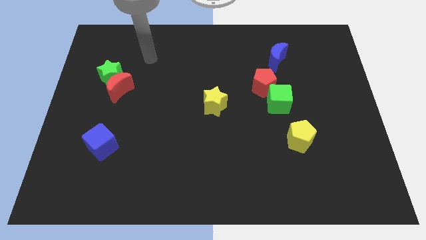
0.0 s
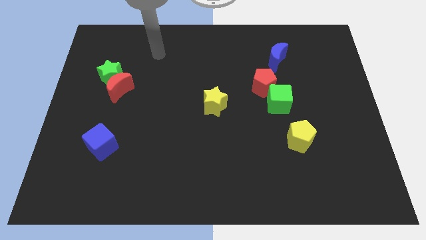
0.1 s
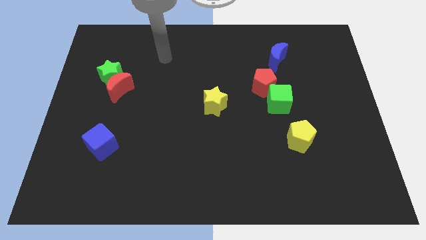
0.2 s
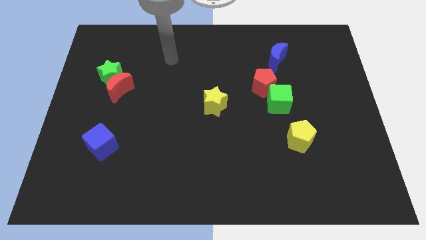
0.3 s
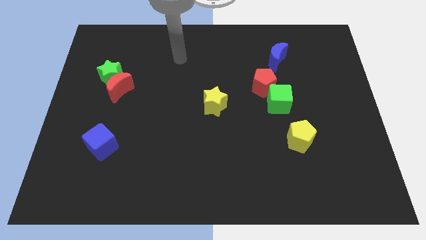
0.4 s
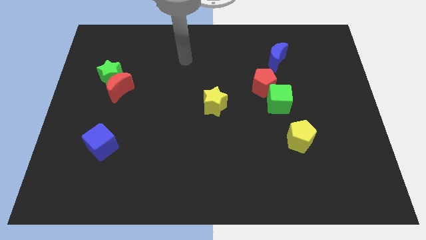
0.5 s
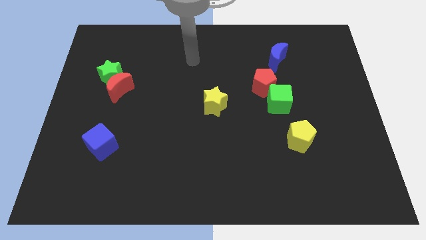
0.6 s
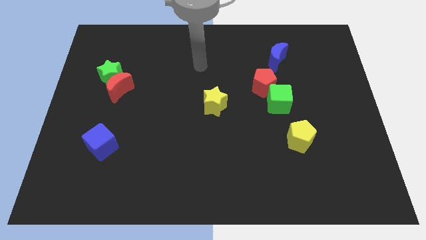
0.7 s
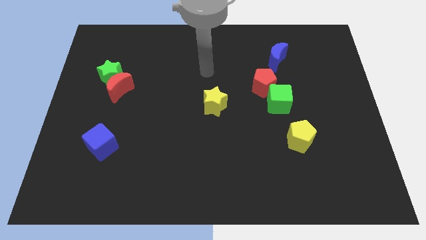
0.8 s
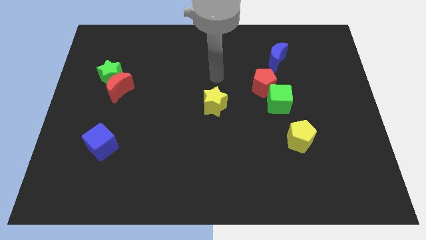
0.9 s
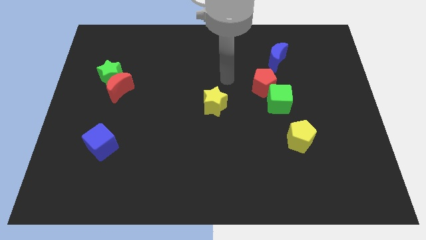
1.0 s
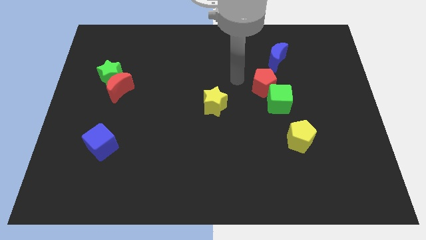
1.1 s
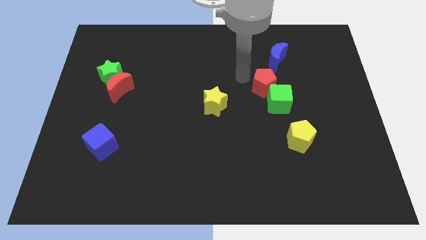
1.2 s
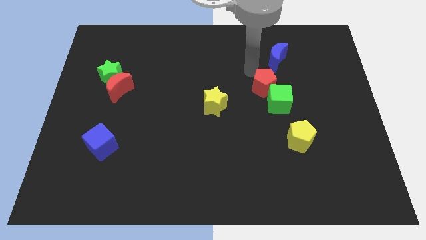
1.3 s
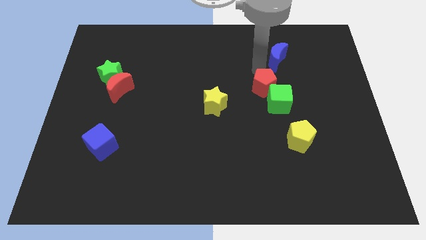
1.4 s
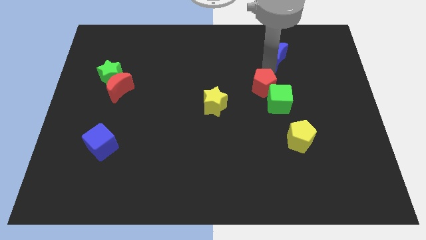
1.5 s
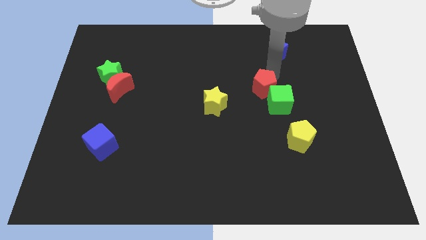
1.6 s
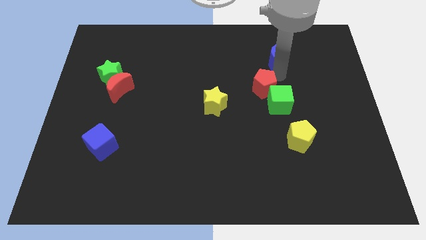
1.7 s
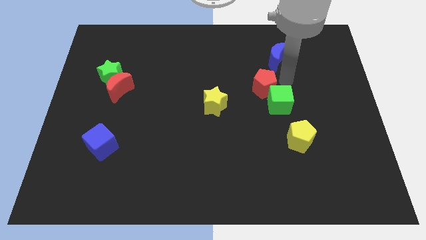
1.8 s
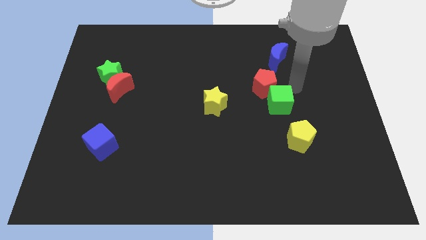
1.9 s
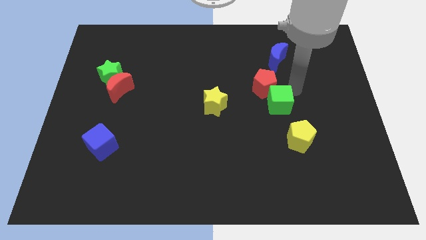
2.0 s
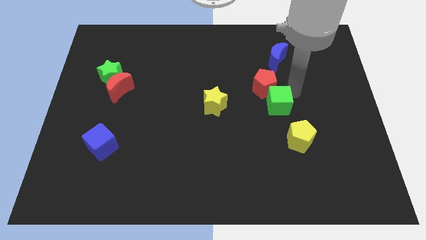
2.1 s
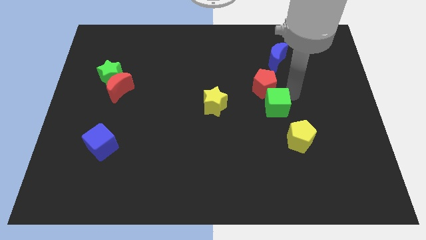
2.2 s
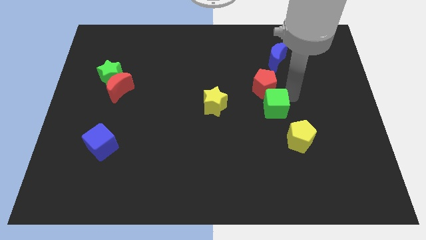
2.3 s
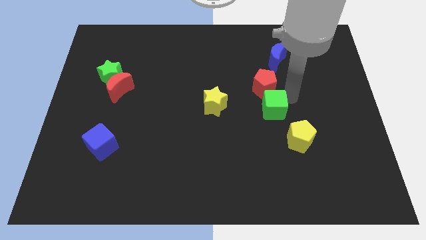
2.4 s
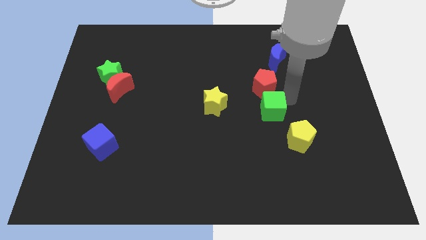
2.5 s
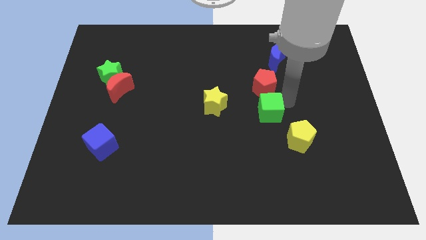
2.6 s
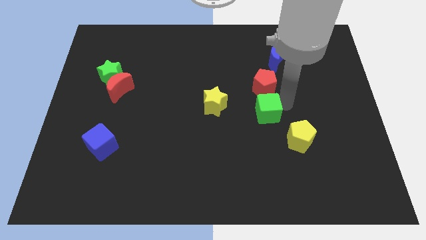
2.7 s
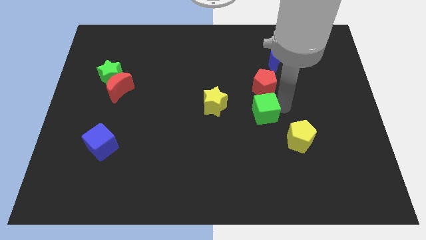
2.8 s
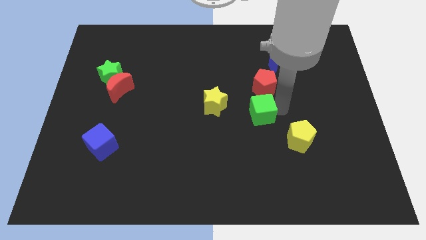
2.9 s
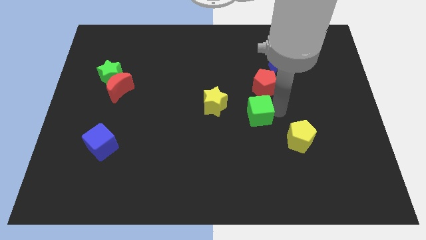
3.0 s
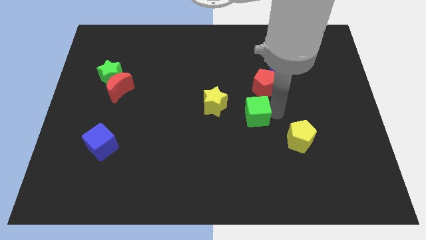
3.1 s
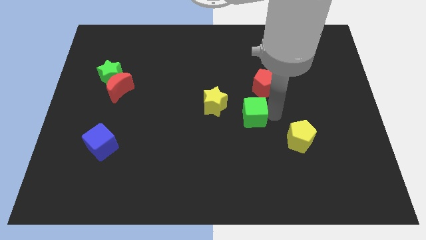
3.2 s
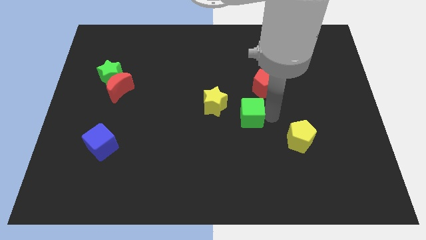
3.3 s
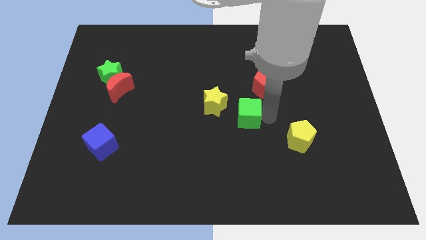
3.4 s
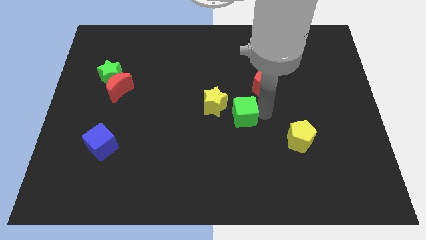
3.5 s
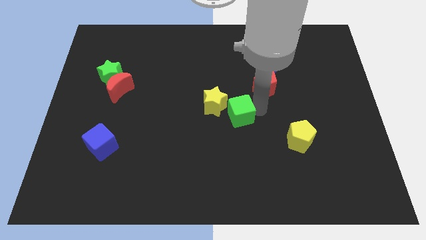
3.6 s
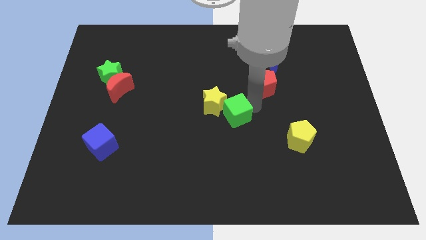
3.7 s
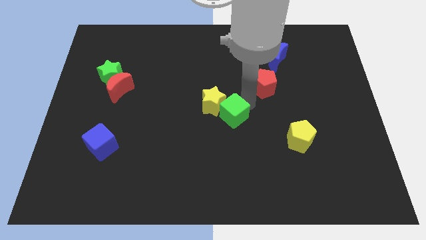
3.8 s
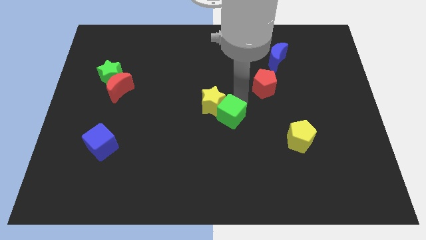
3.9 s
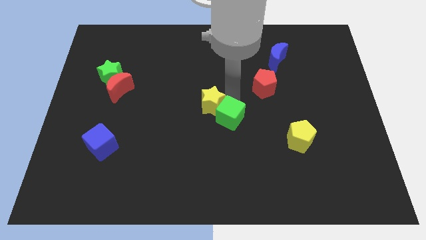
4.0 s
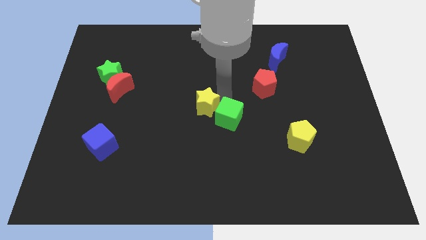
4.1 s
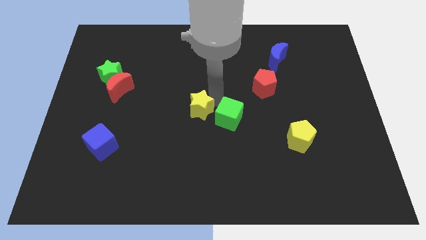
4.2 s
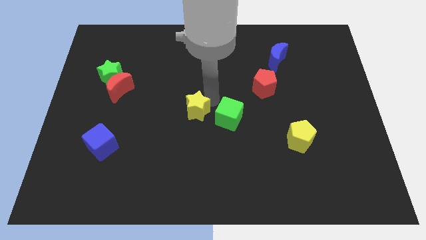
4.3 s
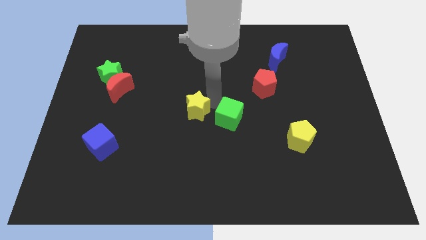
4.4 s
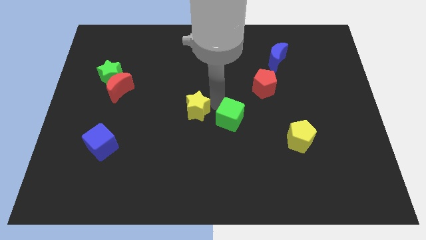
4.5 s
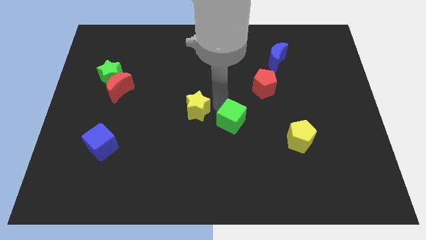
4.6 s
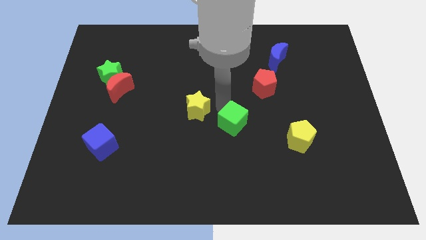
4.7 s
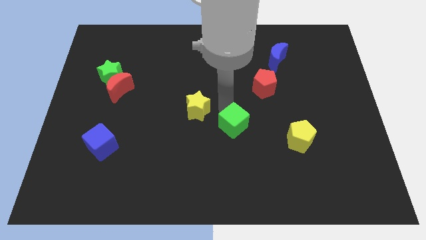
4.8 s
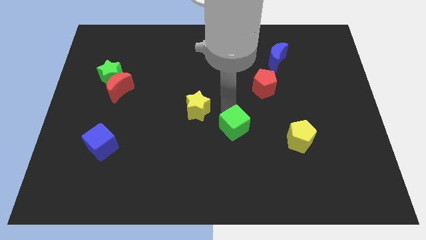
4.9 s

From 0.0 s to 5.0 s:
push the green cube to the left side of the yellow pentagon

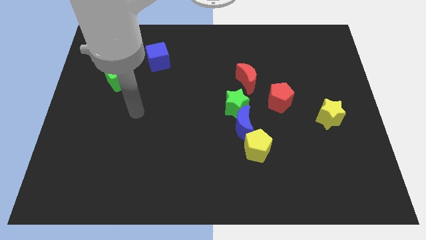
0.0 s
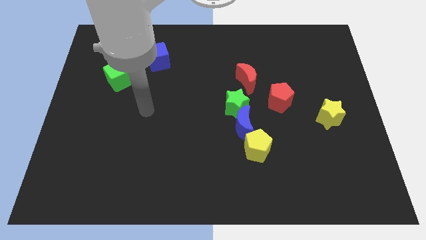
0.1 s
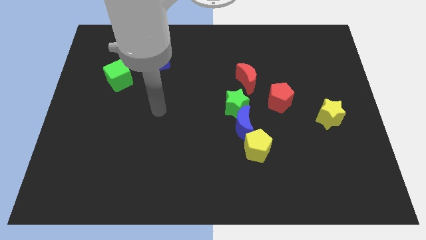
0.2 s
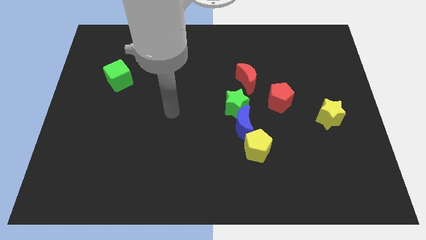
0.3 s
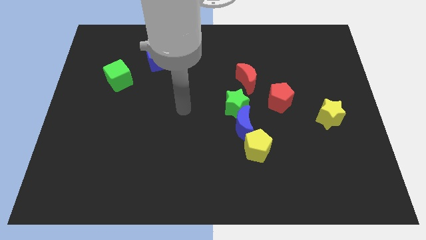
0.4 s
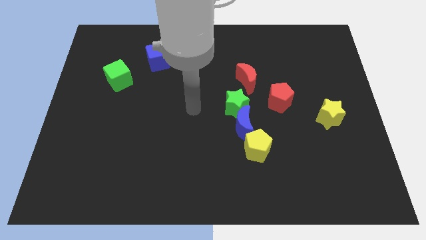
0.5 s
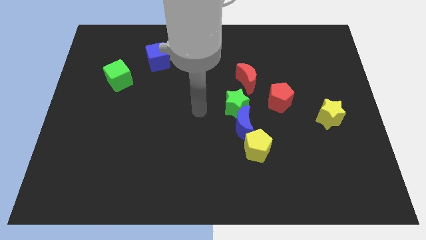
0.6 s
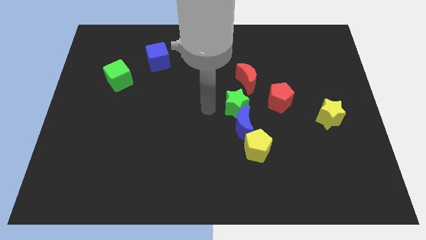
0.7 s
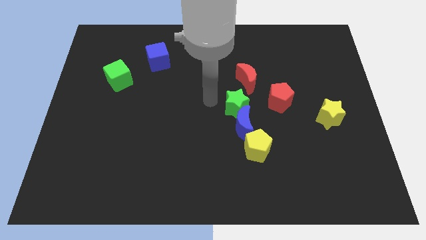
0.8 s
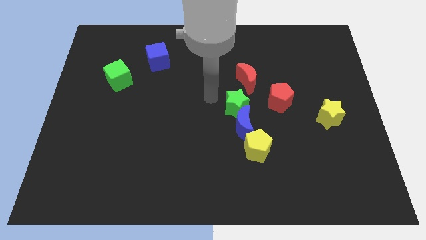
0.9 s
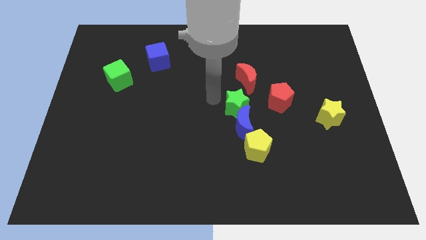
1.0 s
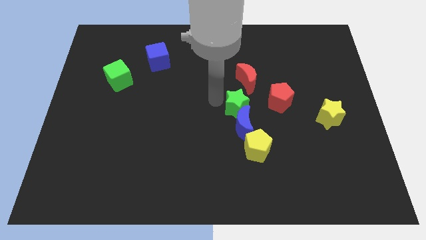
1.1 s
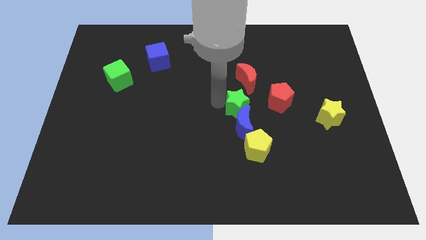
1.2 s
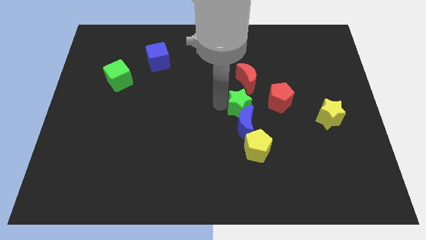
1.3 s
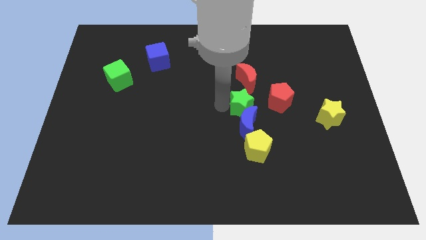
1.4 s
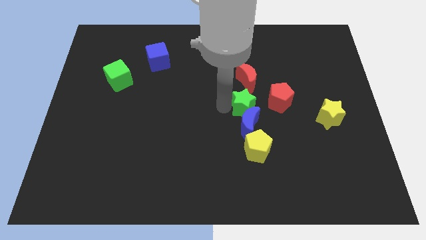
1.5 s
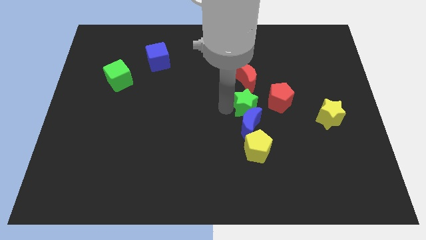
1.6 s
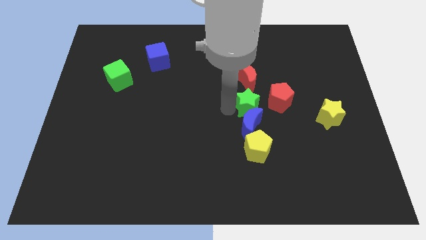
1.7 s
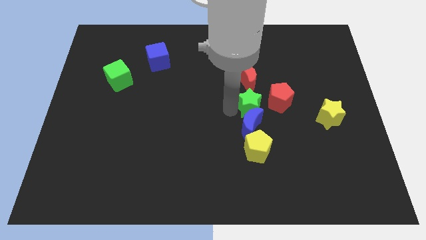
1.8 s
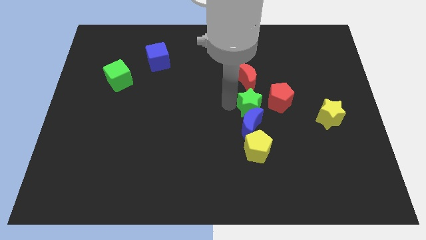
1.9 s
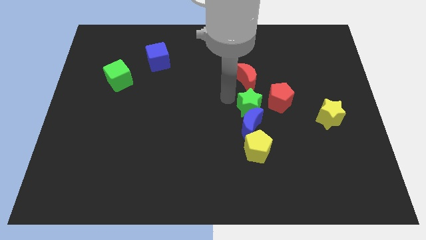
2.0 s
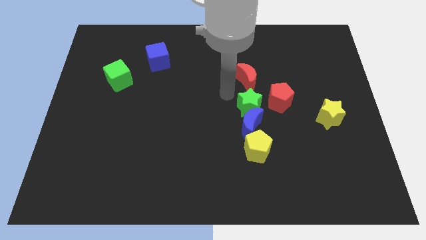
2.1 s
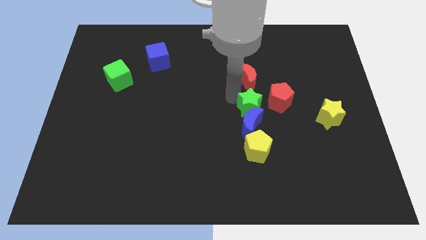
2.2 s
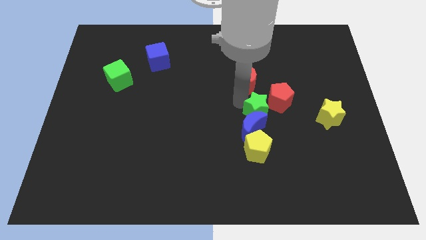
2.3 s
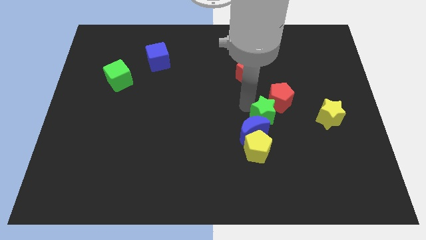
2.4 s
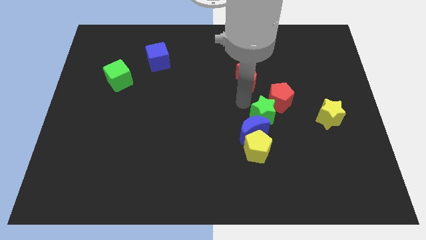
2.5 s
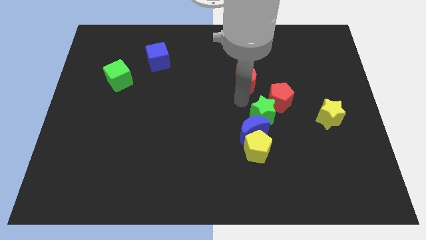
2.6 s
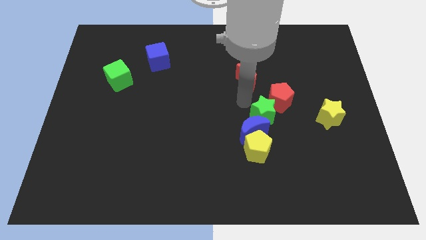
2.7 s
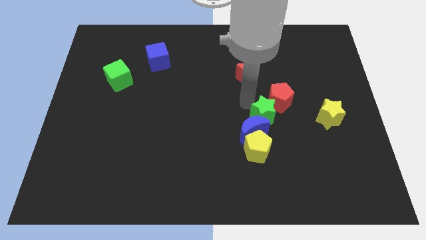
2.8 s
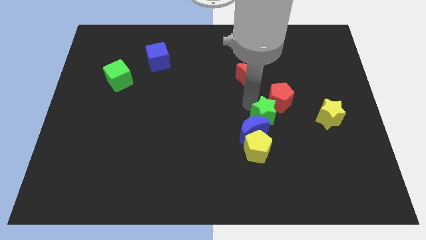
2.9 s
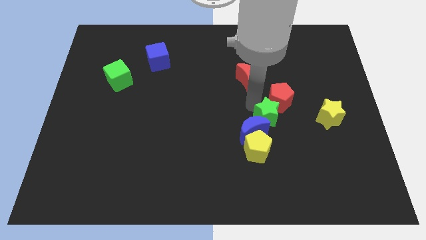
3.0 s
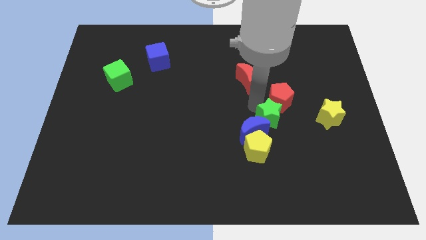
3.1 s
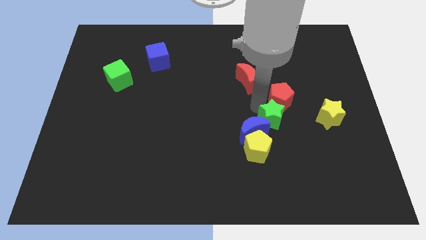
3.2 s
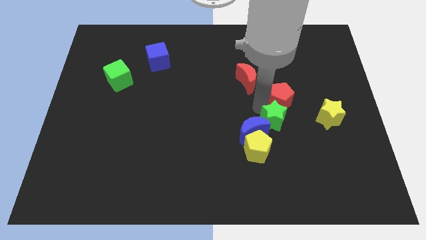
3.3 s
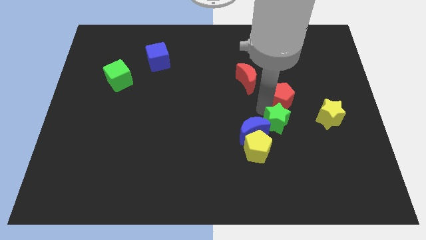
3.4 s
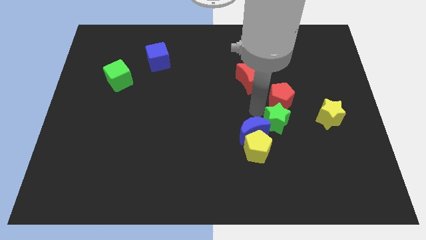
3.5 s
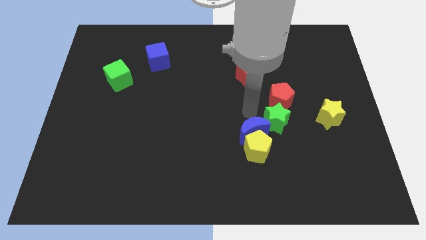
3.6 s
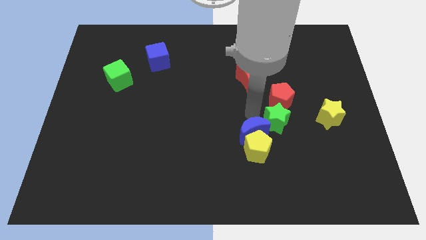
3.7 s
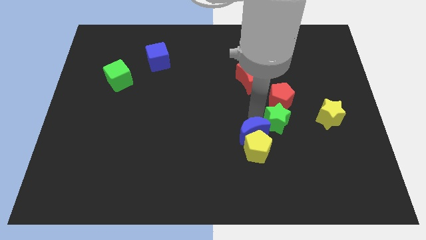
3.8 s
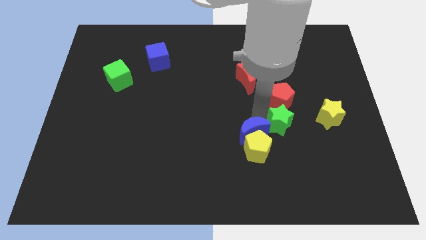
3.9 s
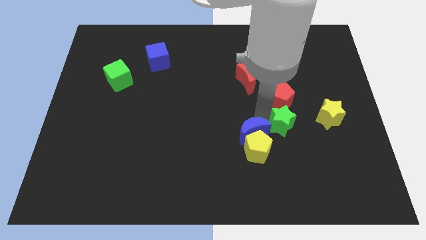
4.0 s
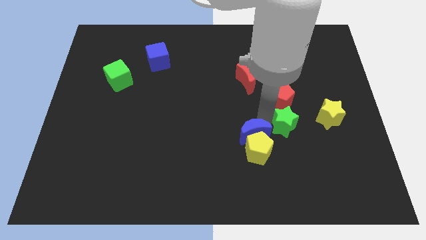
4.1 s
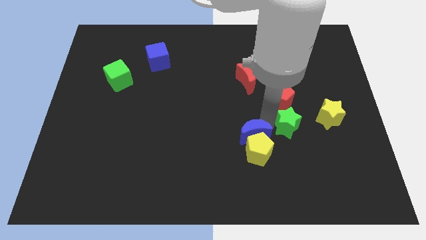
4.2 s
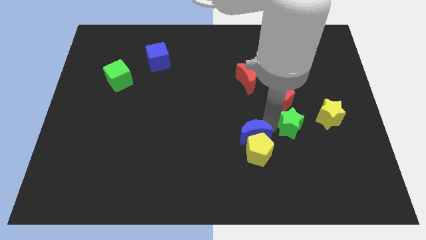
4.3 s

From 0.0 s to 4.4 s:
slide the green star diagonally down and to the left of the yellow star
